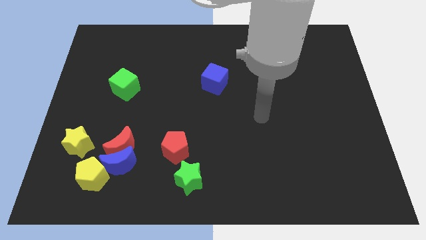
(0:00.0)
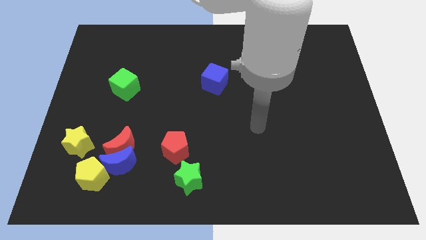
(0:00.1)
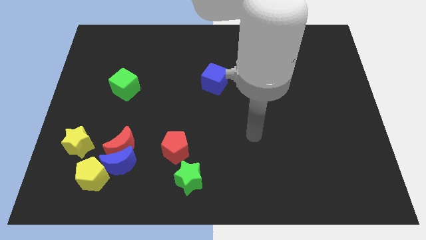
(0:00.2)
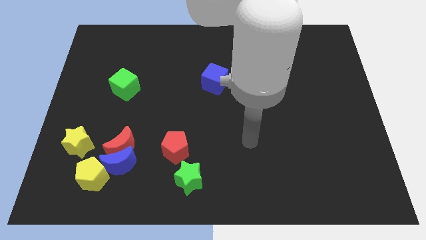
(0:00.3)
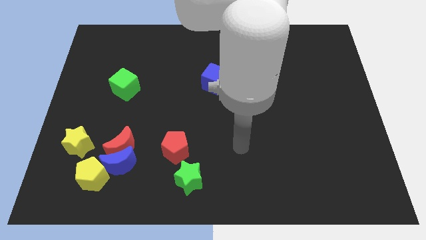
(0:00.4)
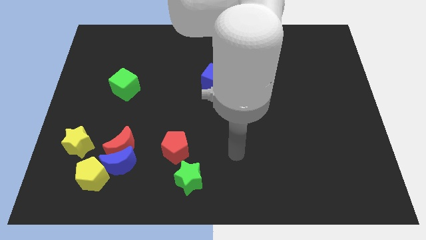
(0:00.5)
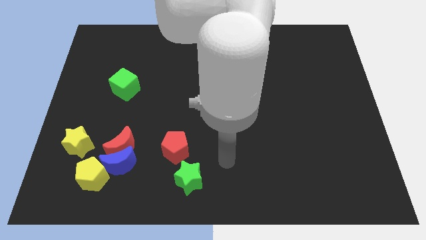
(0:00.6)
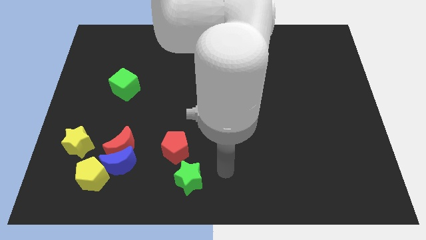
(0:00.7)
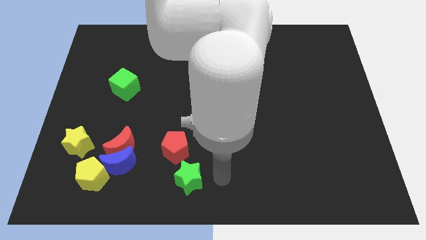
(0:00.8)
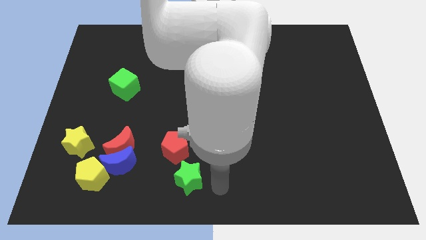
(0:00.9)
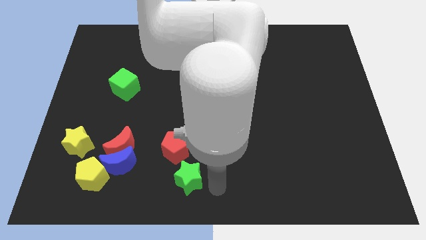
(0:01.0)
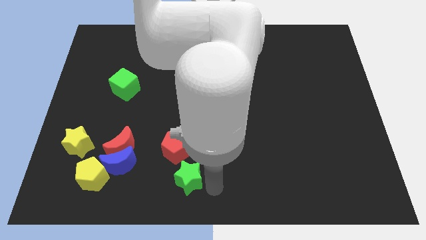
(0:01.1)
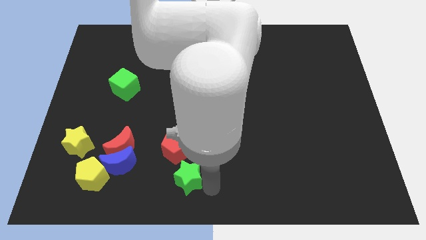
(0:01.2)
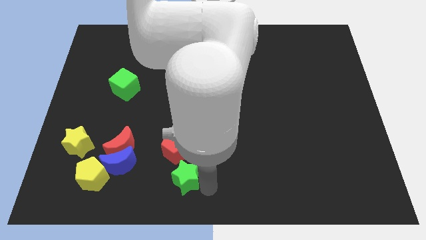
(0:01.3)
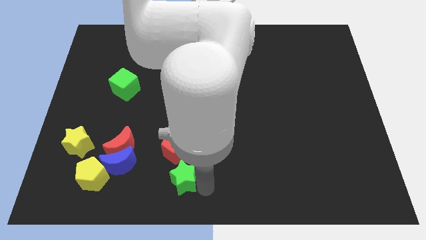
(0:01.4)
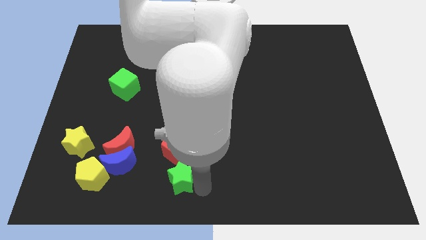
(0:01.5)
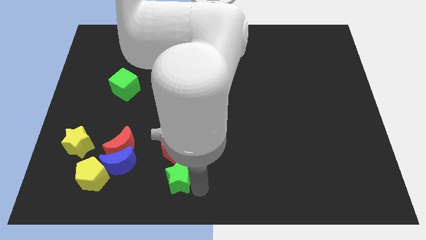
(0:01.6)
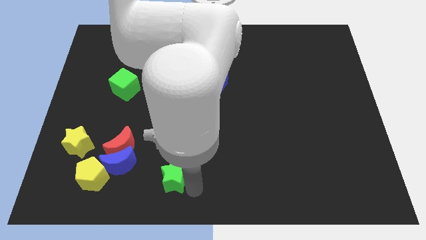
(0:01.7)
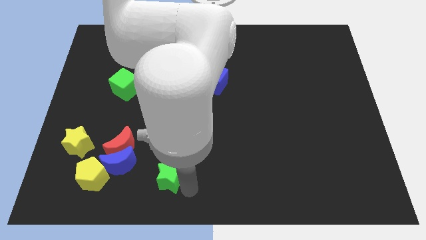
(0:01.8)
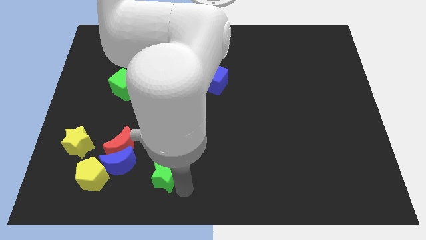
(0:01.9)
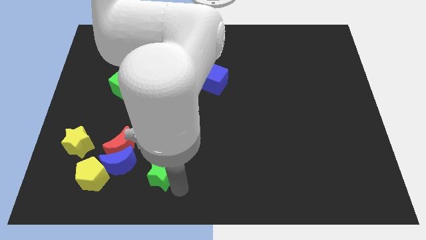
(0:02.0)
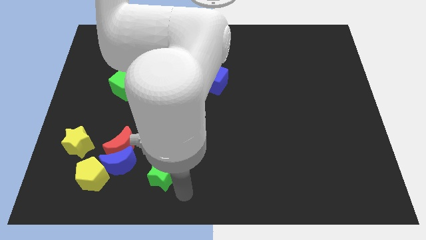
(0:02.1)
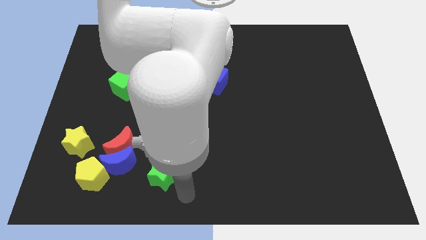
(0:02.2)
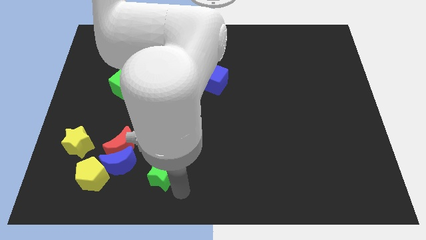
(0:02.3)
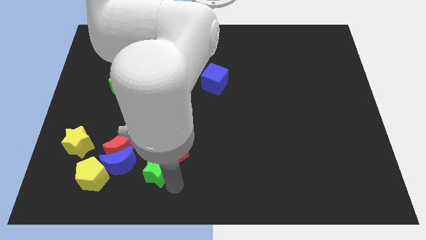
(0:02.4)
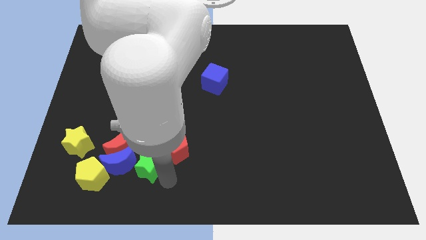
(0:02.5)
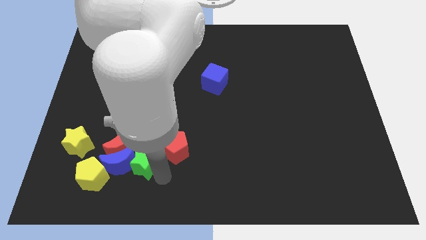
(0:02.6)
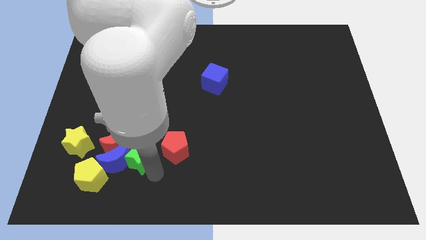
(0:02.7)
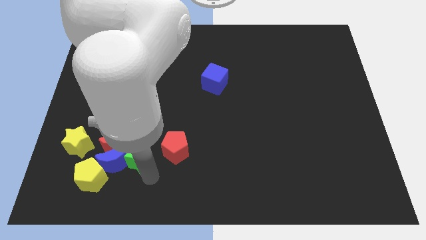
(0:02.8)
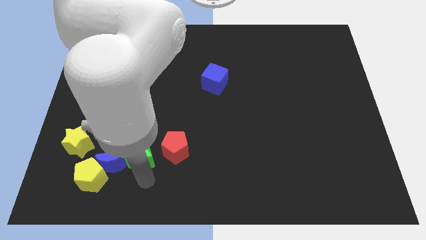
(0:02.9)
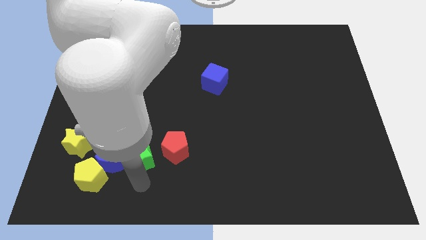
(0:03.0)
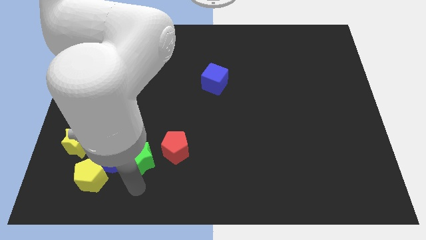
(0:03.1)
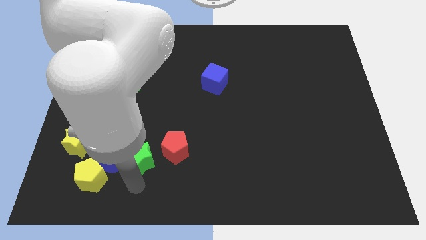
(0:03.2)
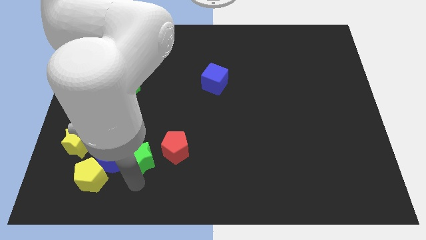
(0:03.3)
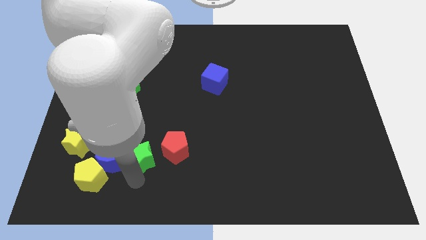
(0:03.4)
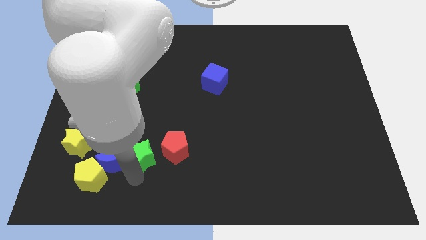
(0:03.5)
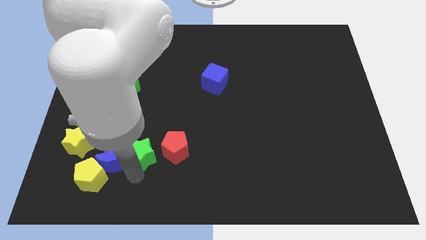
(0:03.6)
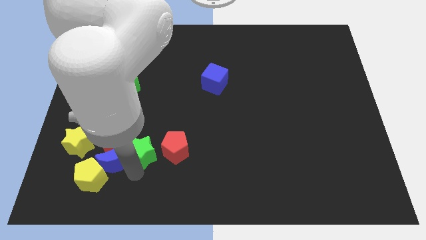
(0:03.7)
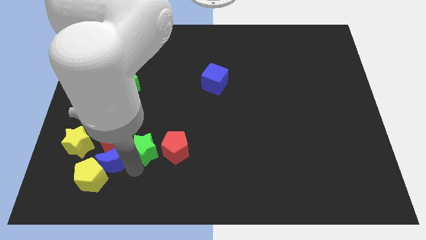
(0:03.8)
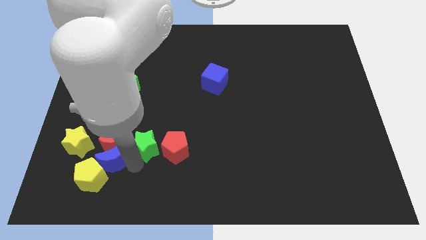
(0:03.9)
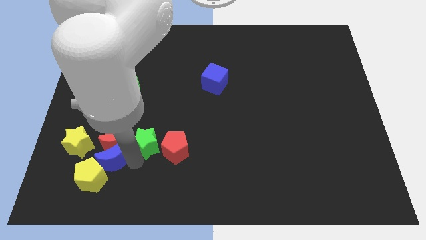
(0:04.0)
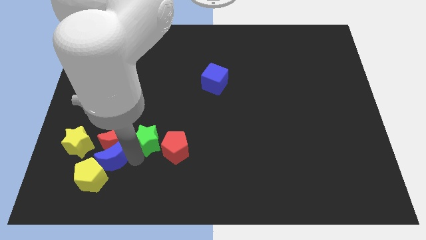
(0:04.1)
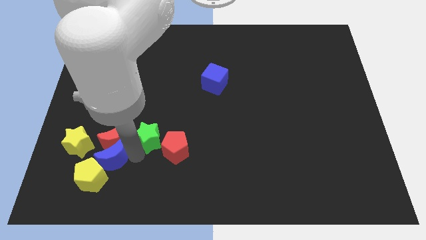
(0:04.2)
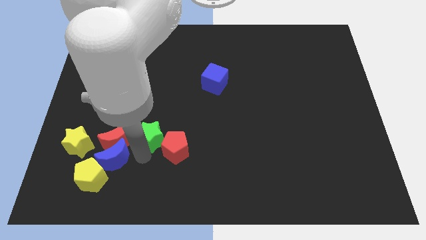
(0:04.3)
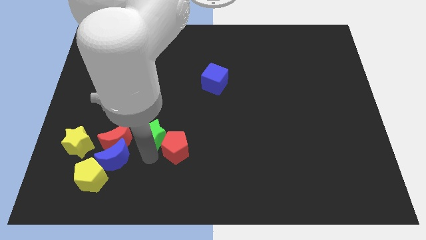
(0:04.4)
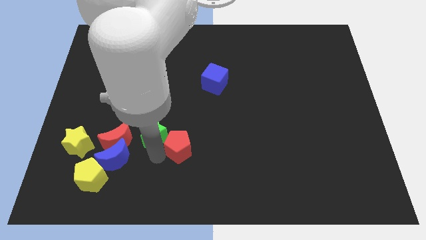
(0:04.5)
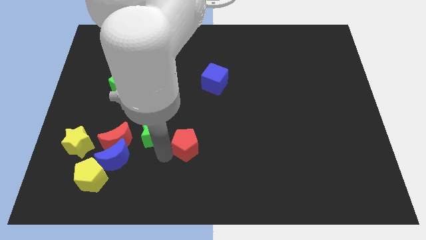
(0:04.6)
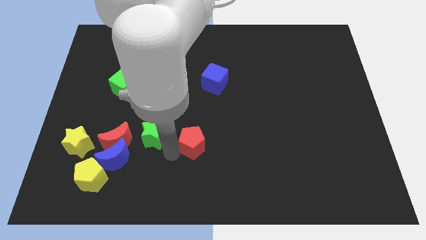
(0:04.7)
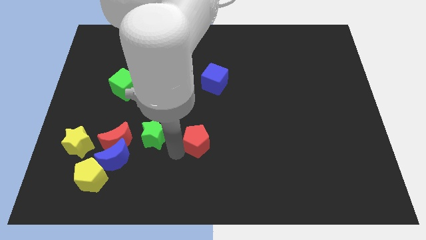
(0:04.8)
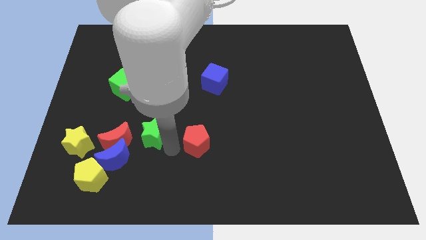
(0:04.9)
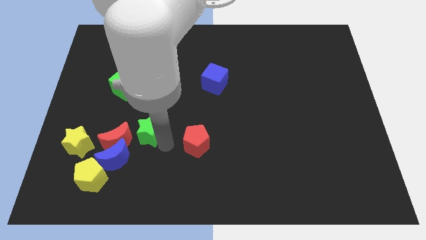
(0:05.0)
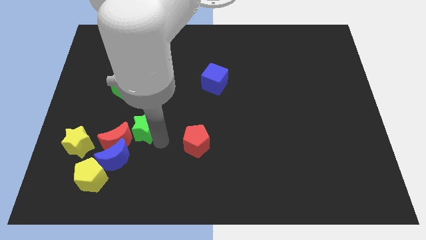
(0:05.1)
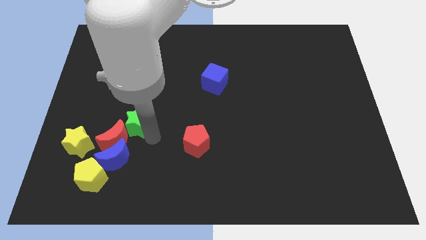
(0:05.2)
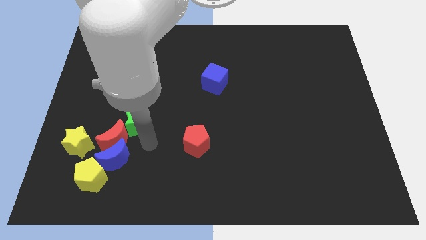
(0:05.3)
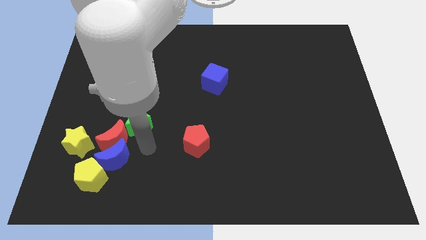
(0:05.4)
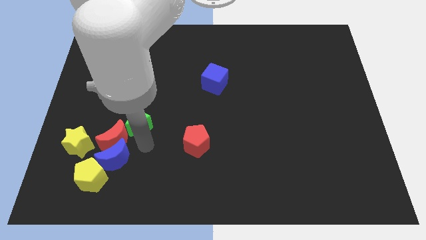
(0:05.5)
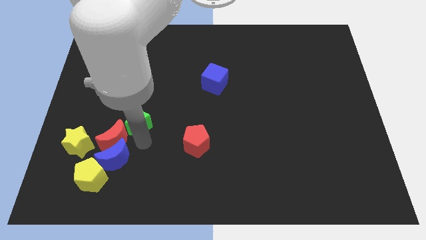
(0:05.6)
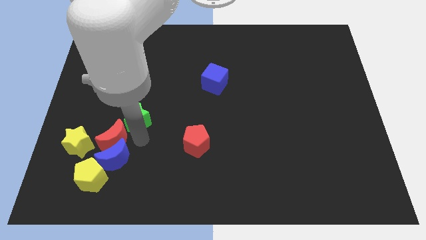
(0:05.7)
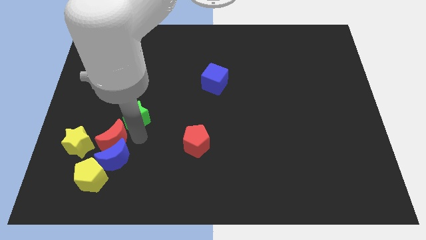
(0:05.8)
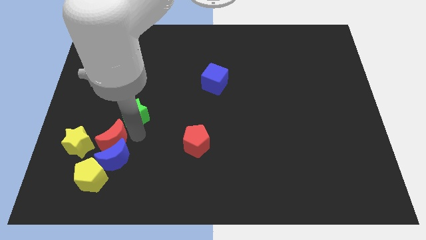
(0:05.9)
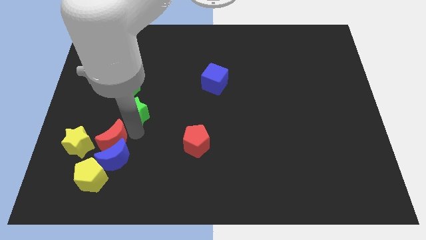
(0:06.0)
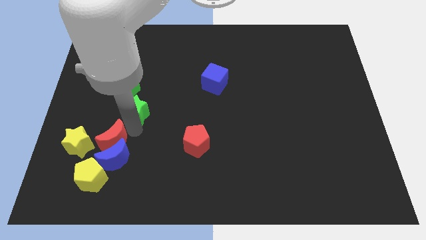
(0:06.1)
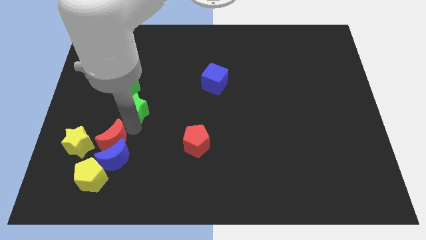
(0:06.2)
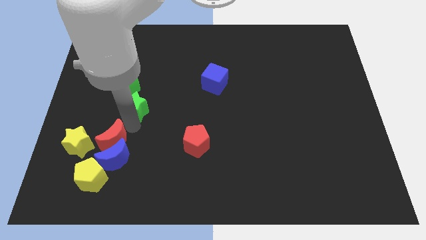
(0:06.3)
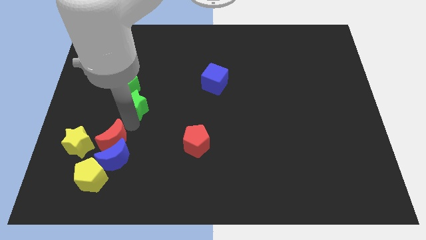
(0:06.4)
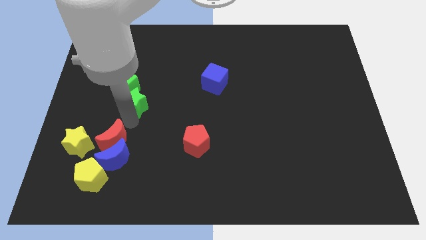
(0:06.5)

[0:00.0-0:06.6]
slide the green star towards the green cube

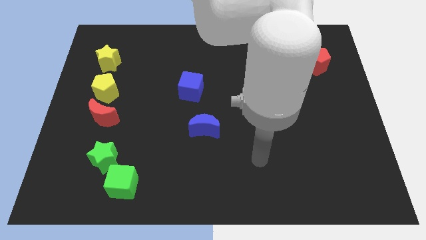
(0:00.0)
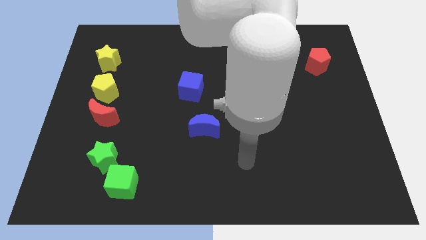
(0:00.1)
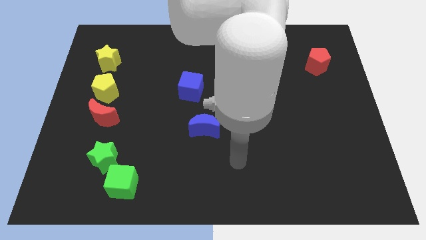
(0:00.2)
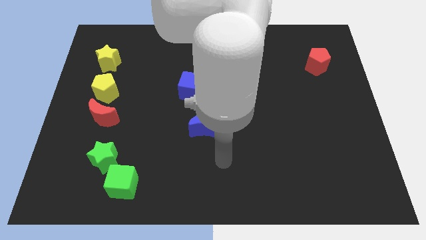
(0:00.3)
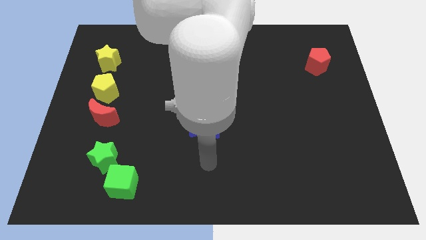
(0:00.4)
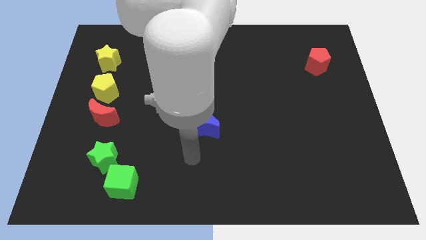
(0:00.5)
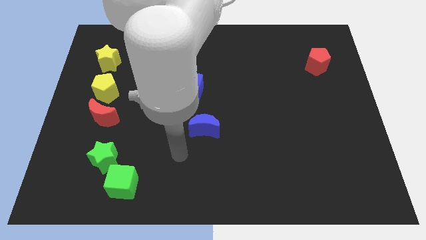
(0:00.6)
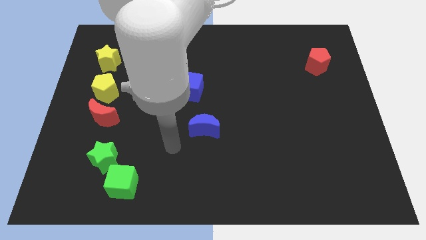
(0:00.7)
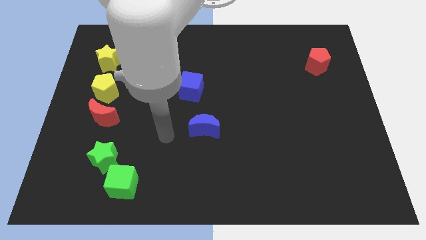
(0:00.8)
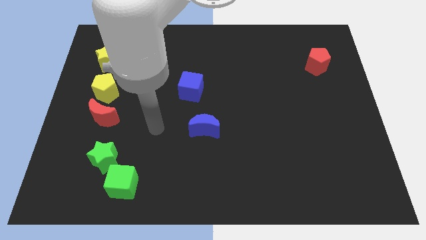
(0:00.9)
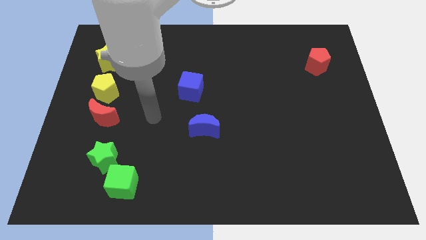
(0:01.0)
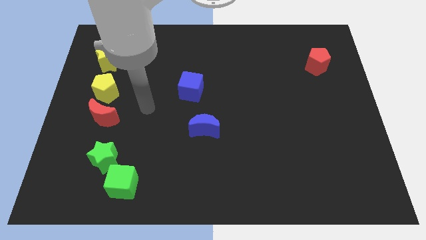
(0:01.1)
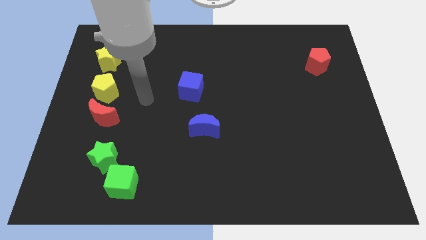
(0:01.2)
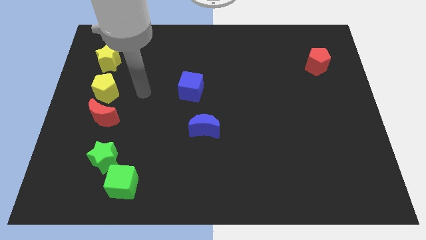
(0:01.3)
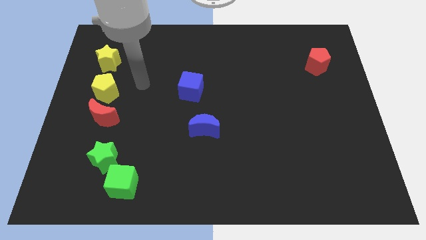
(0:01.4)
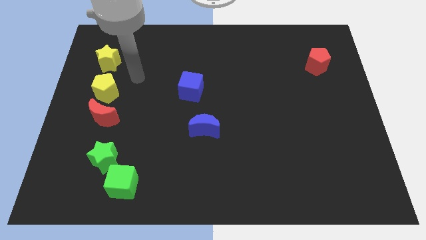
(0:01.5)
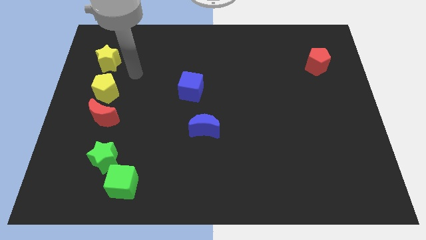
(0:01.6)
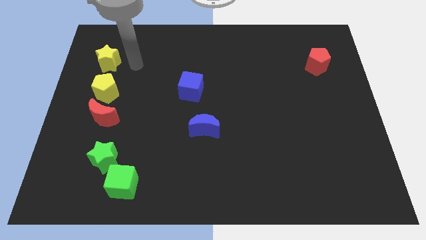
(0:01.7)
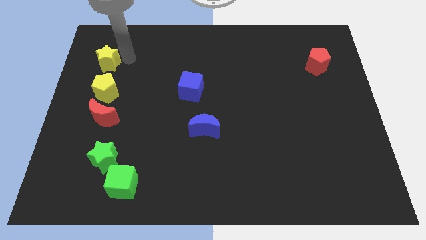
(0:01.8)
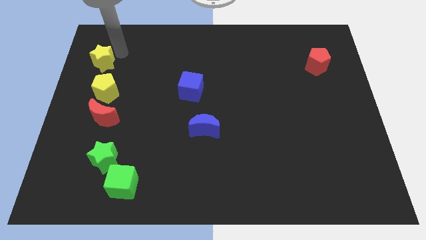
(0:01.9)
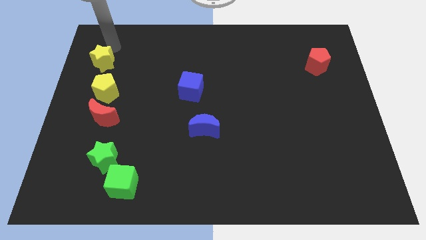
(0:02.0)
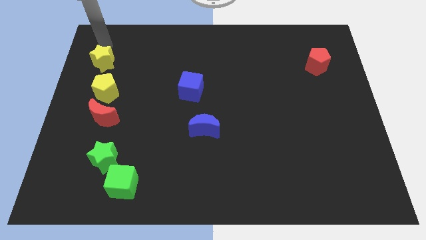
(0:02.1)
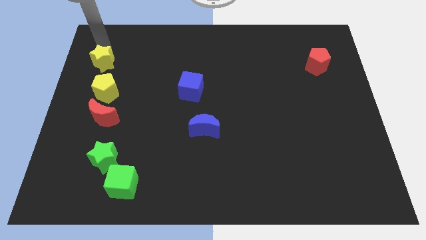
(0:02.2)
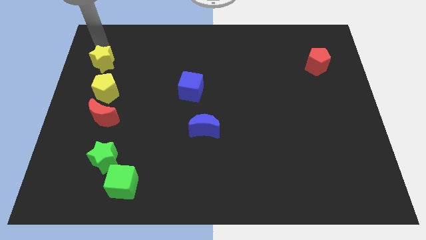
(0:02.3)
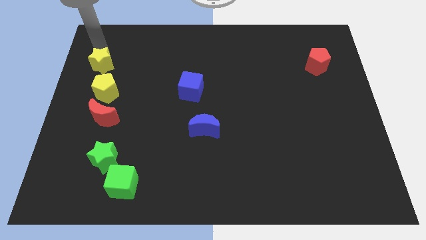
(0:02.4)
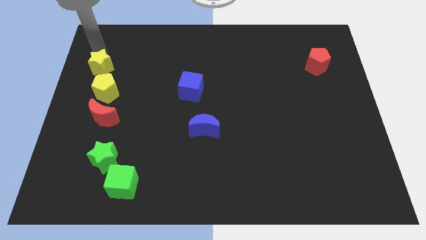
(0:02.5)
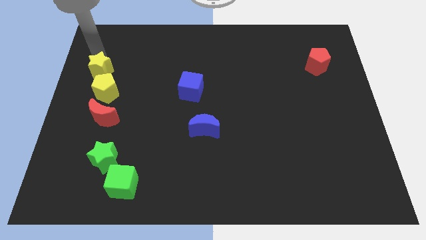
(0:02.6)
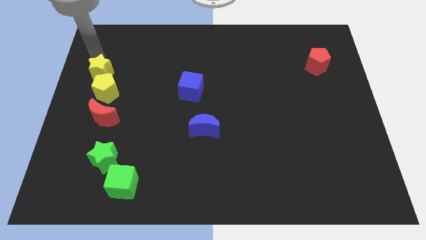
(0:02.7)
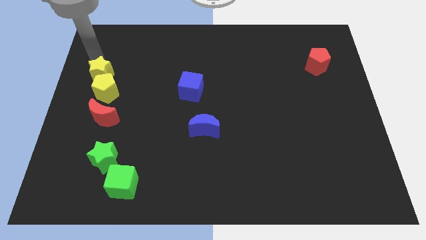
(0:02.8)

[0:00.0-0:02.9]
slide the yellow star to the yellow pentagon
